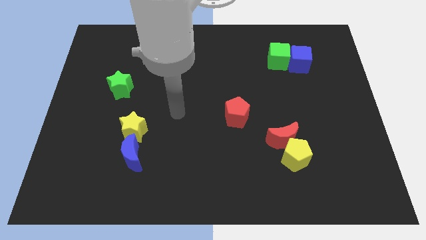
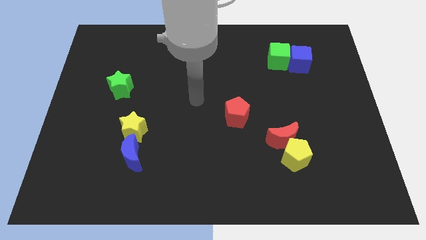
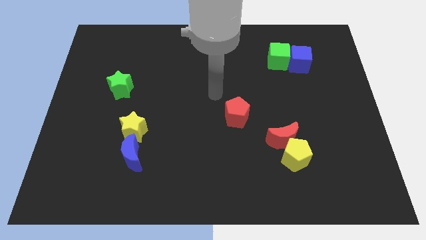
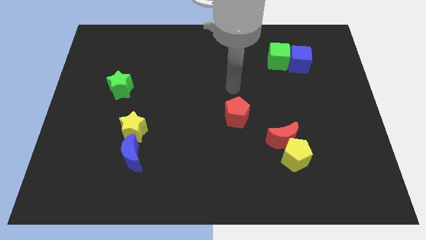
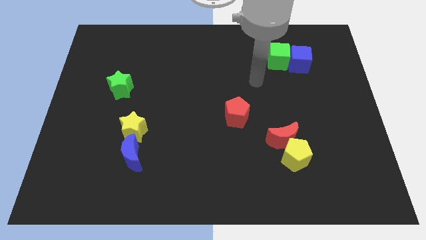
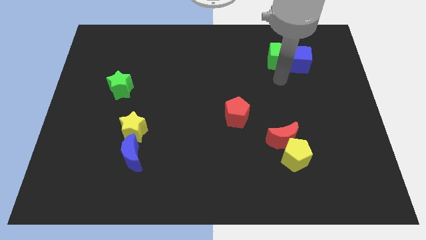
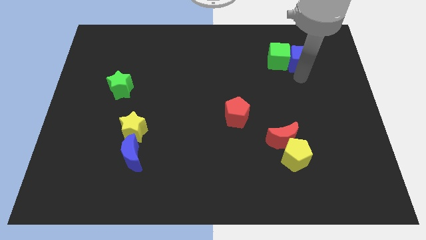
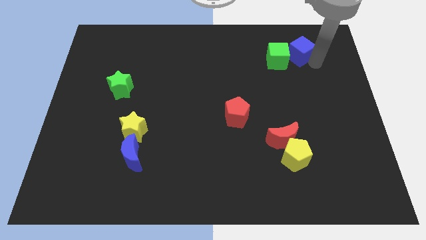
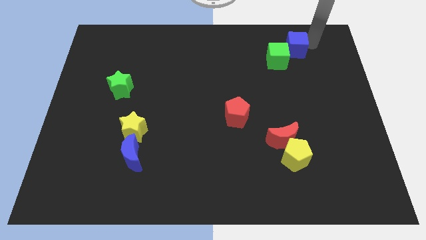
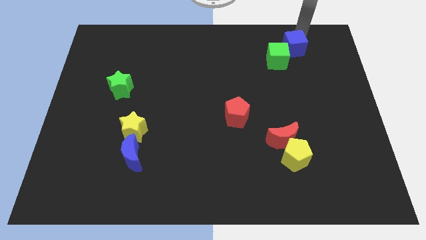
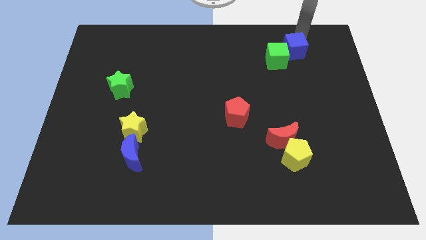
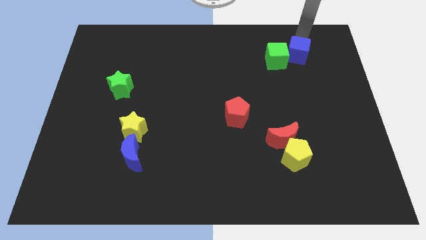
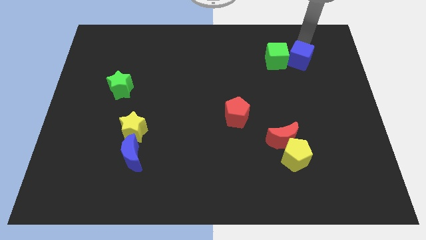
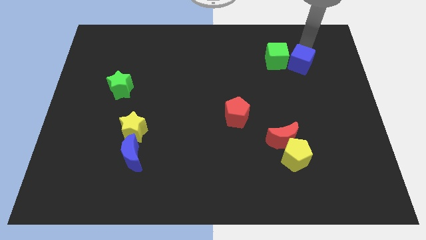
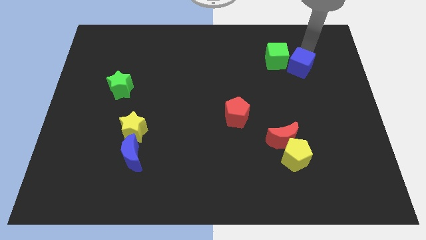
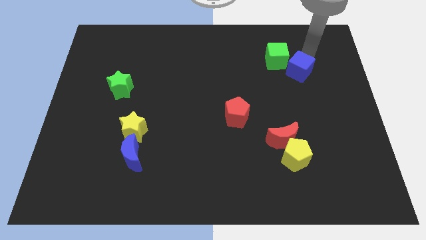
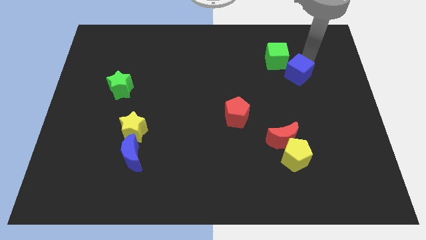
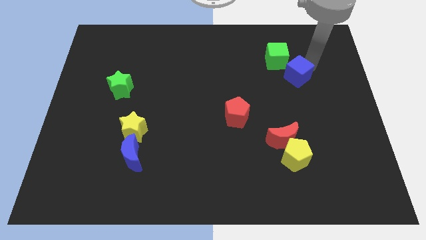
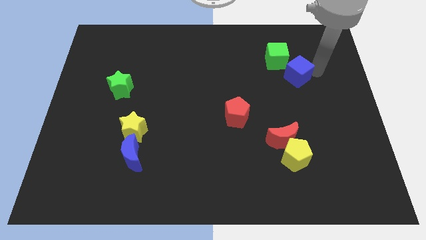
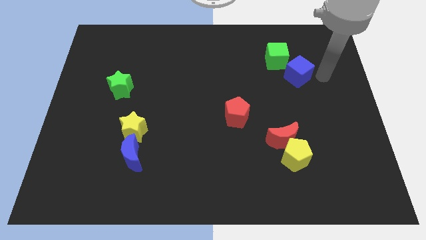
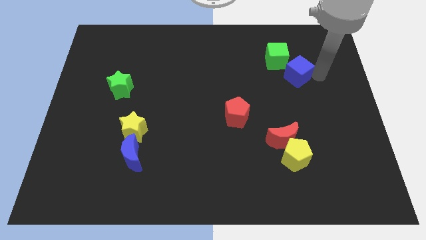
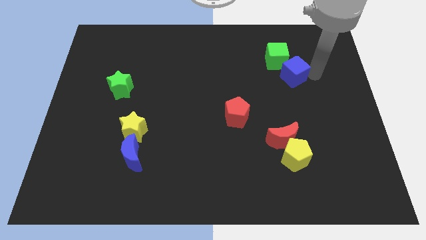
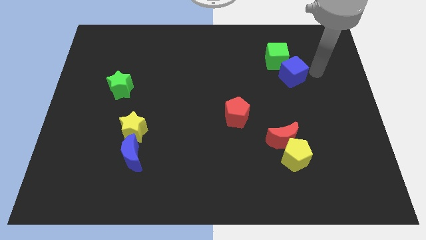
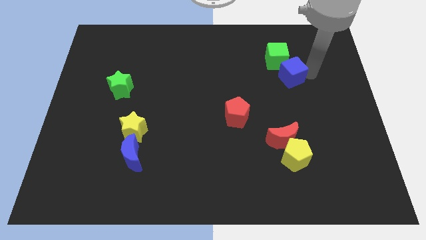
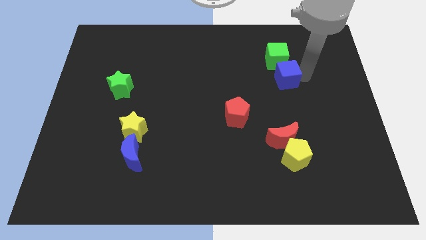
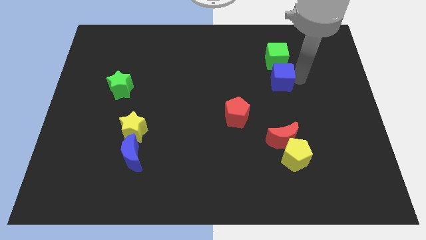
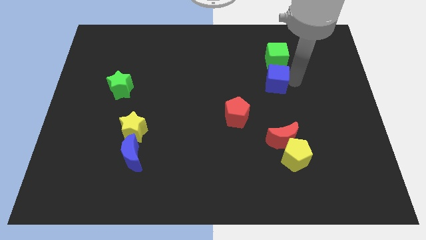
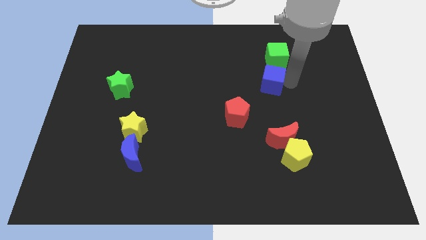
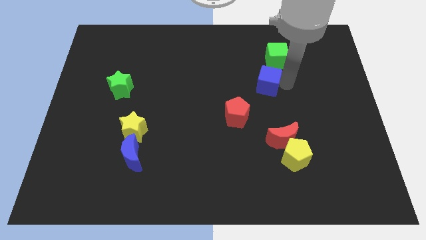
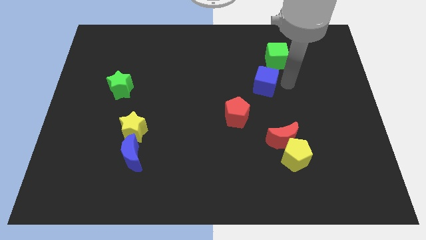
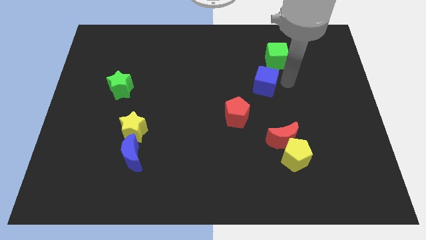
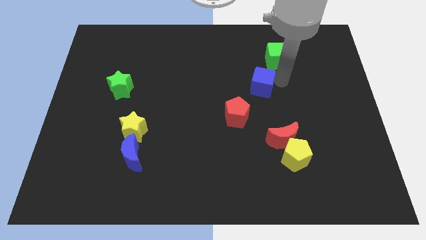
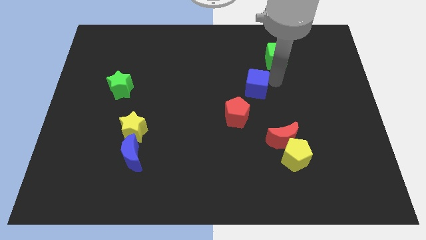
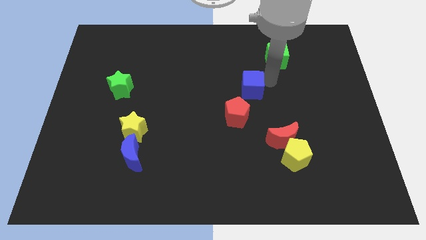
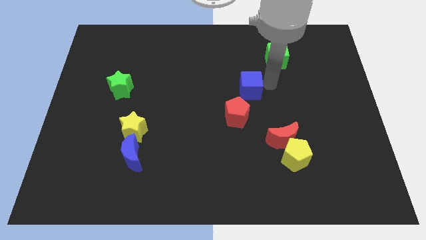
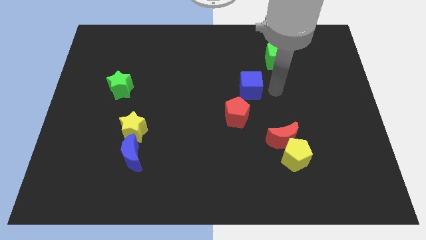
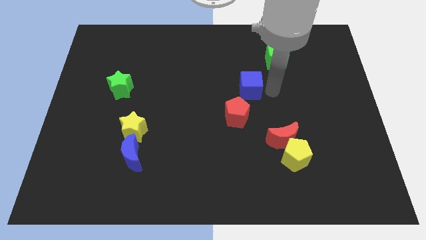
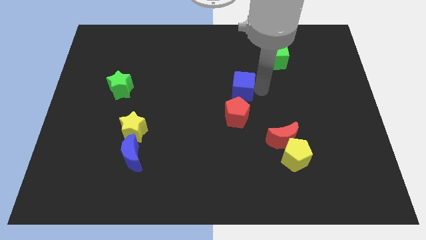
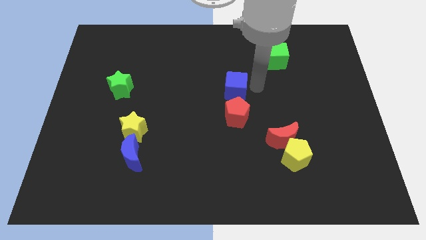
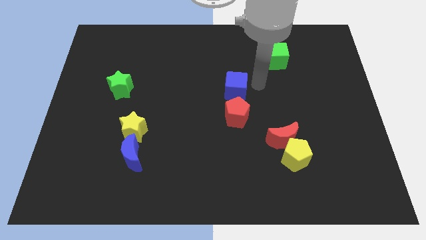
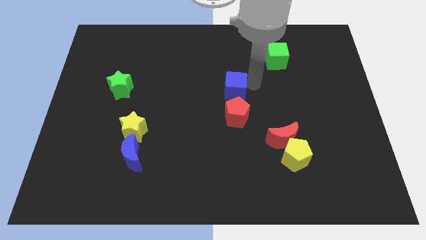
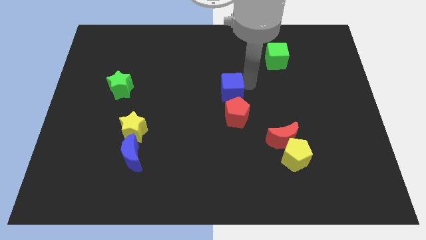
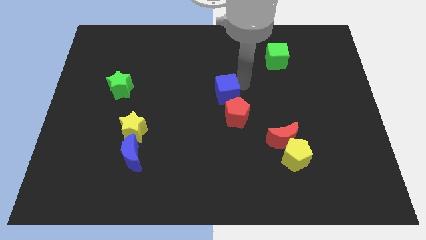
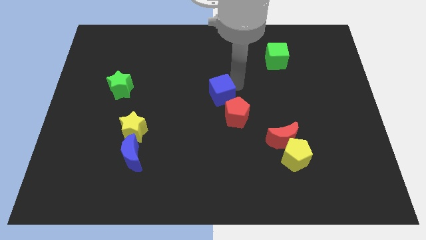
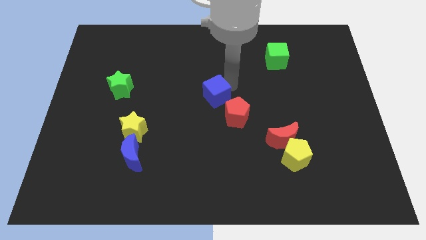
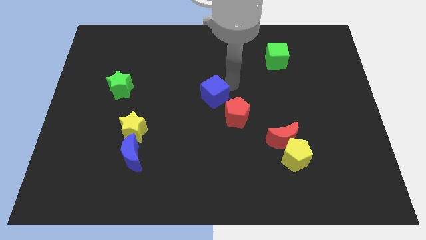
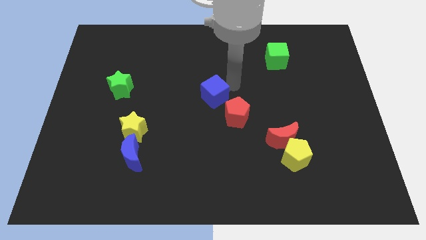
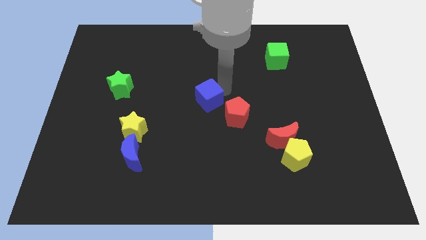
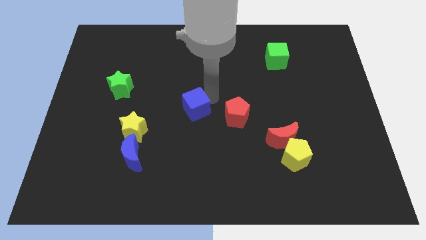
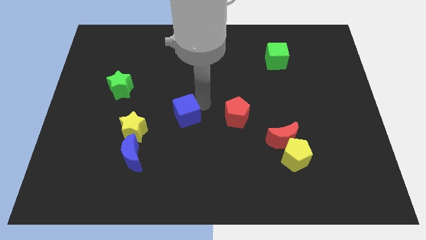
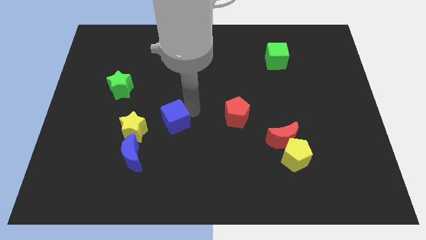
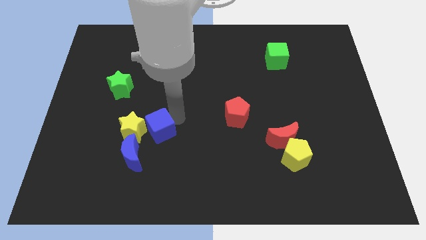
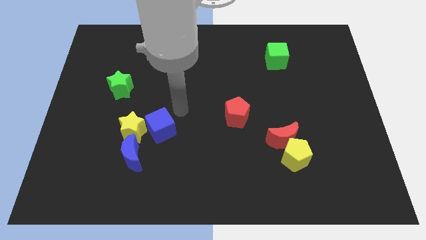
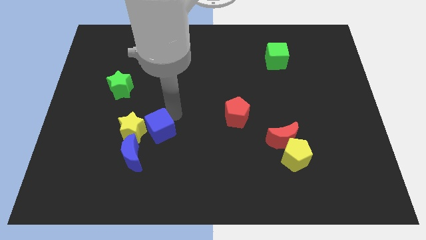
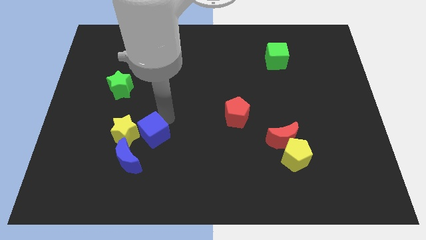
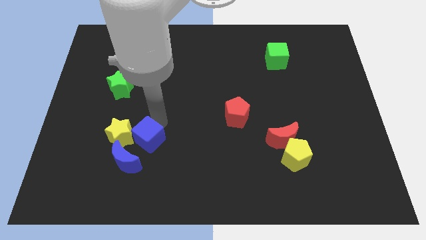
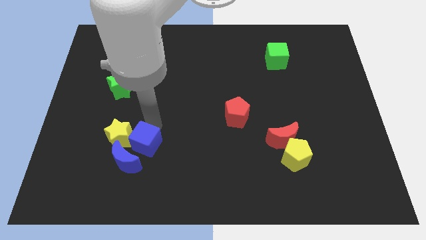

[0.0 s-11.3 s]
slide the blue cube towards the blue moon

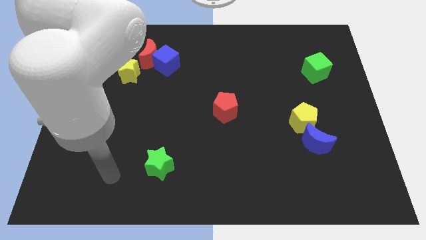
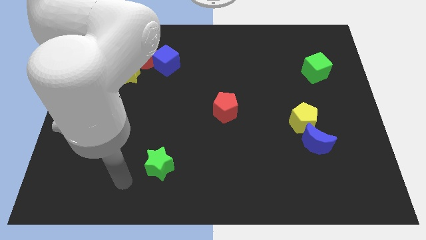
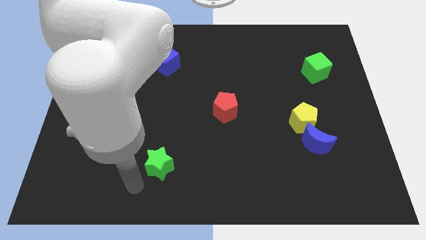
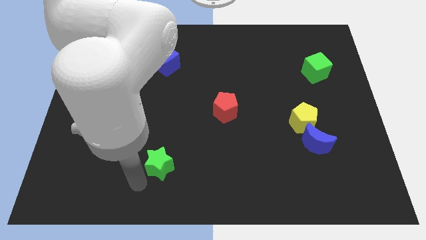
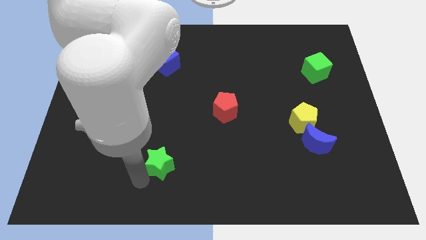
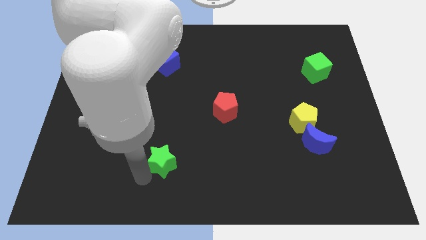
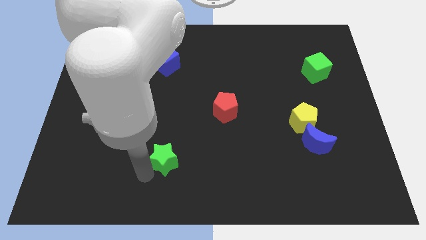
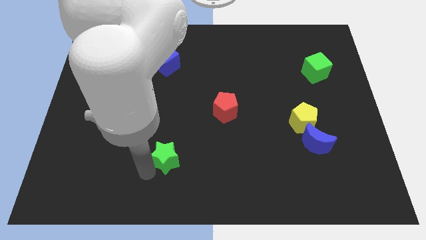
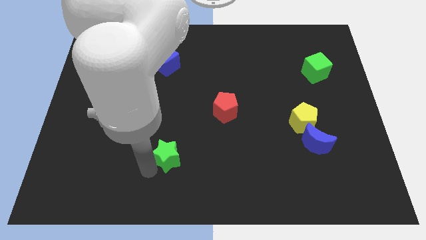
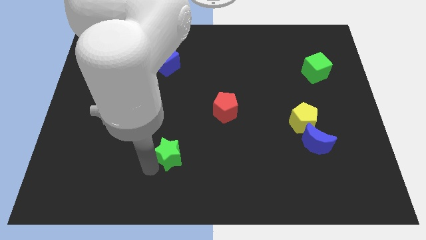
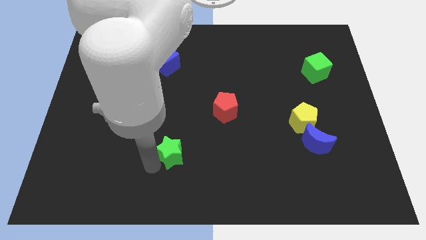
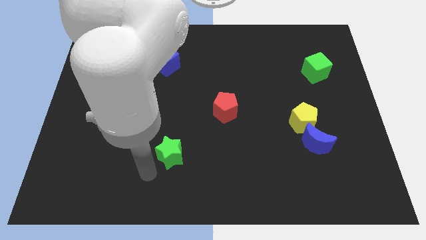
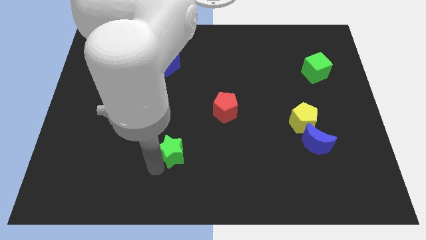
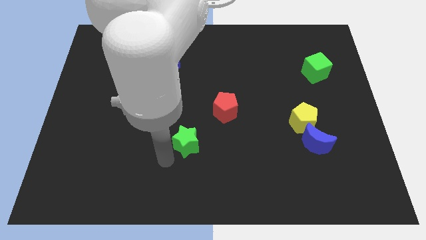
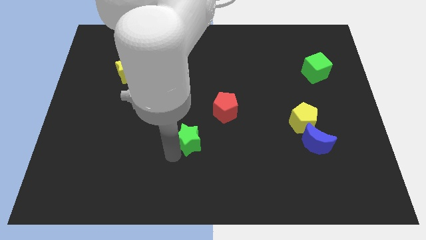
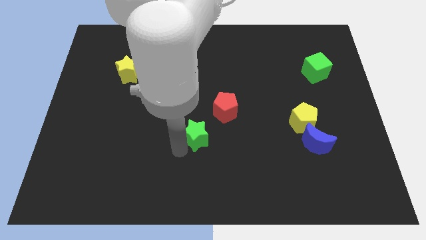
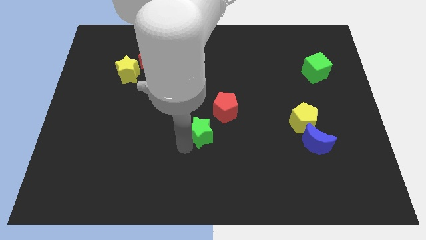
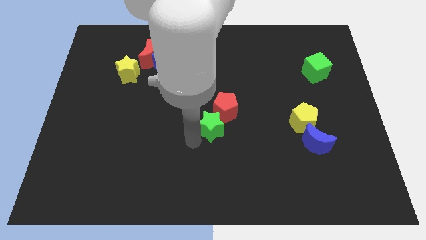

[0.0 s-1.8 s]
put the green star close to the red pentagon
